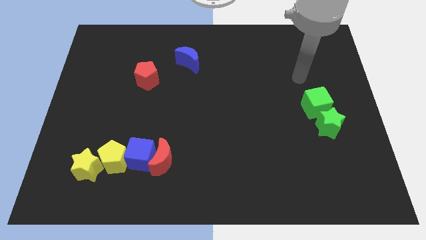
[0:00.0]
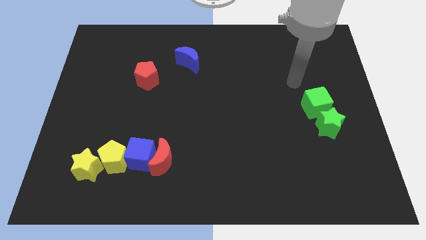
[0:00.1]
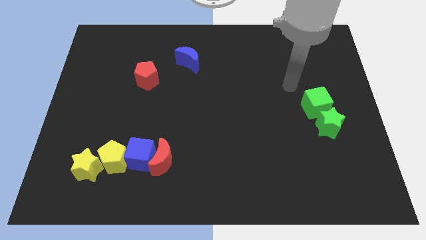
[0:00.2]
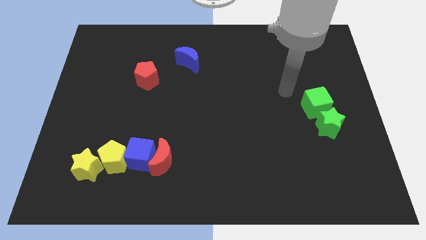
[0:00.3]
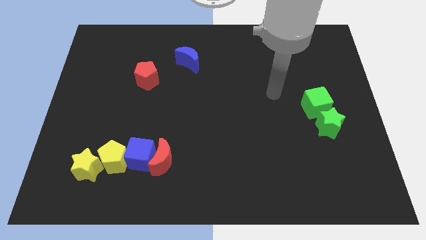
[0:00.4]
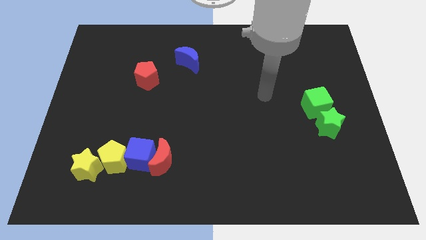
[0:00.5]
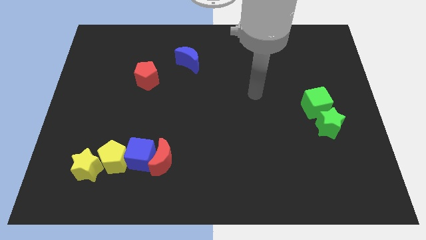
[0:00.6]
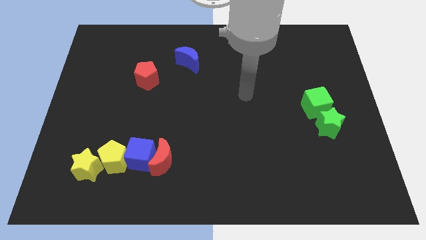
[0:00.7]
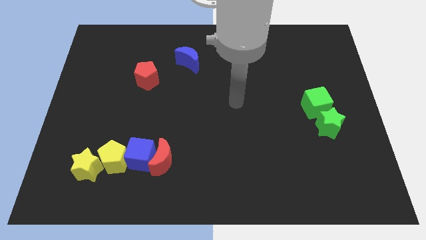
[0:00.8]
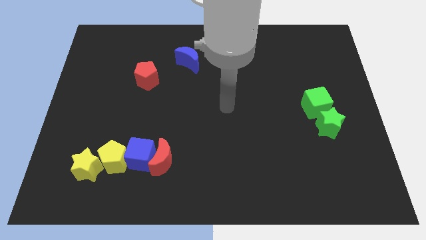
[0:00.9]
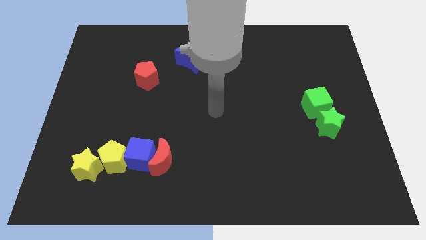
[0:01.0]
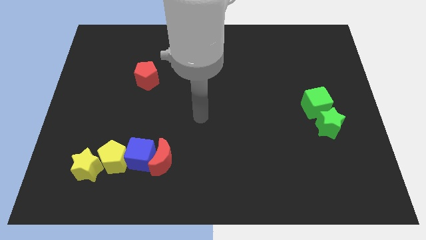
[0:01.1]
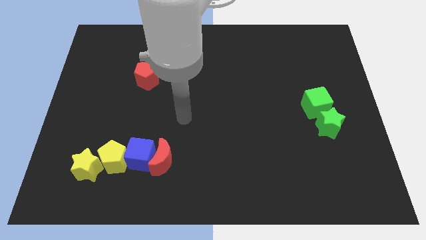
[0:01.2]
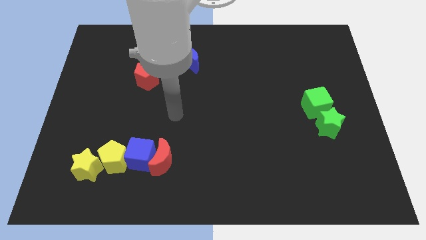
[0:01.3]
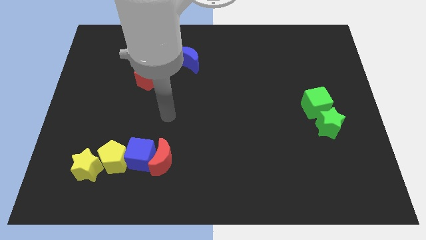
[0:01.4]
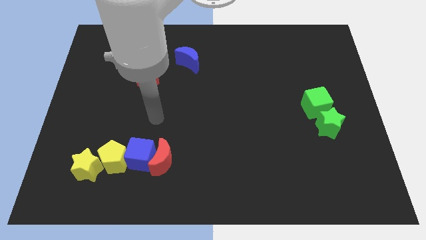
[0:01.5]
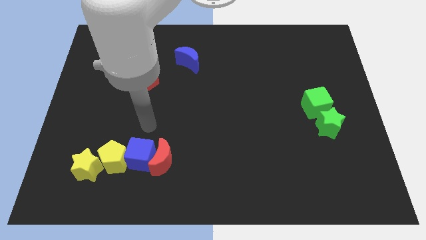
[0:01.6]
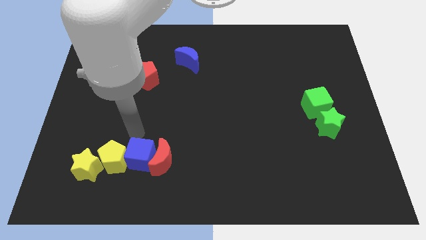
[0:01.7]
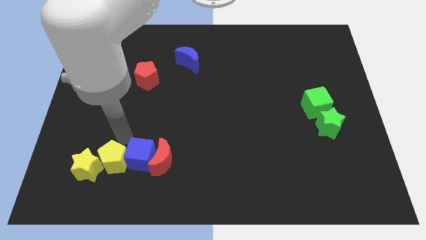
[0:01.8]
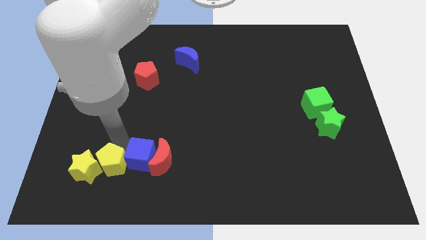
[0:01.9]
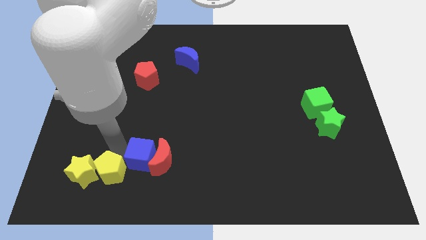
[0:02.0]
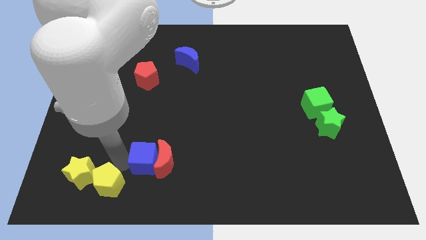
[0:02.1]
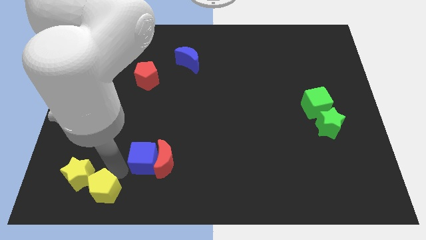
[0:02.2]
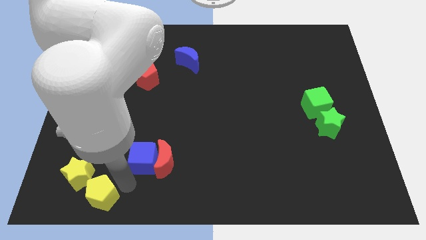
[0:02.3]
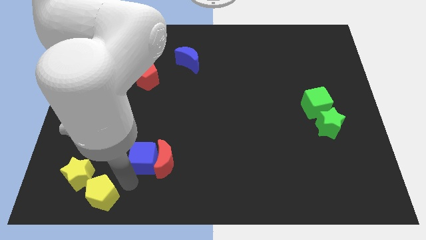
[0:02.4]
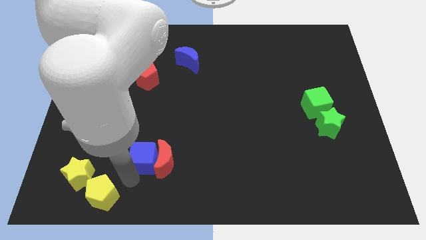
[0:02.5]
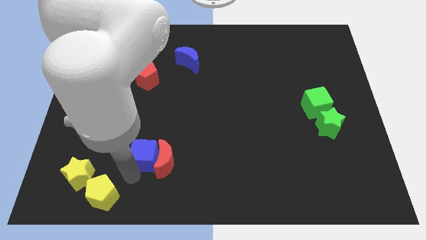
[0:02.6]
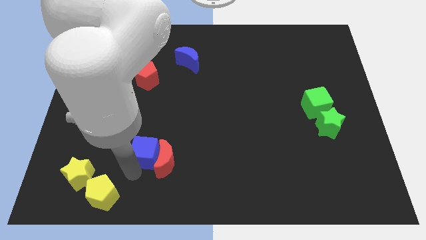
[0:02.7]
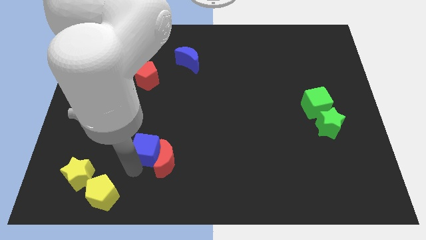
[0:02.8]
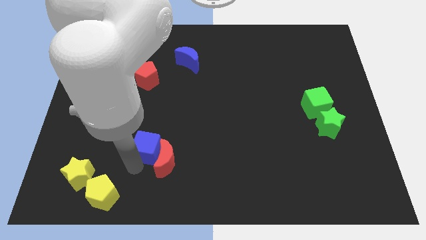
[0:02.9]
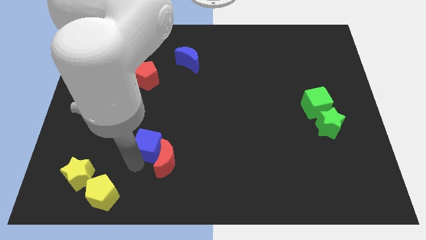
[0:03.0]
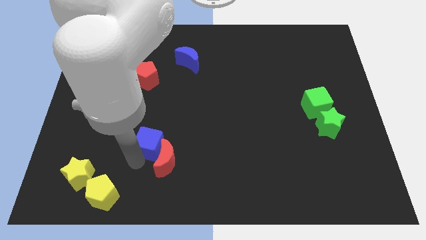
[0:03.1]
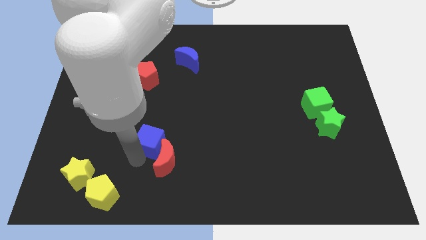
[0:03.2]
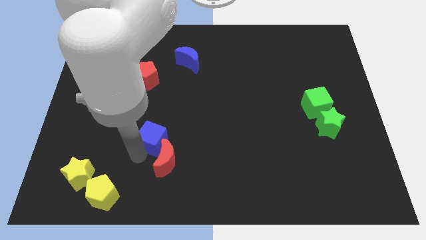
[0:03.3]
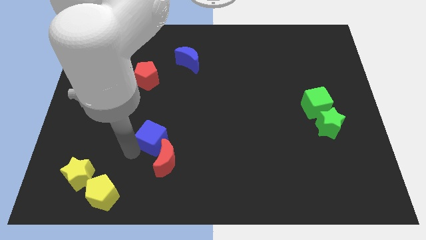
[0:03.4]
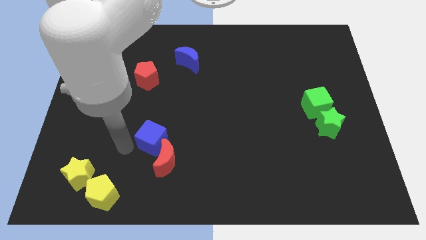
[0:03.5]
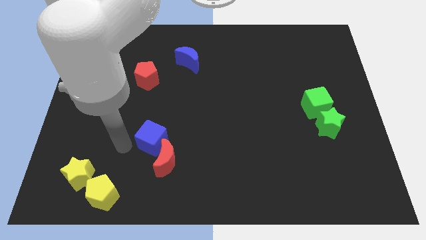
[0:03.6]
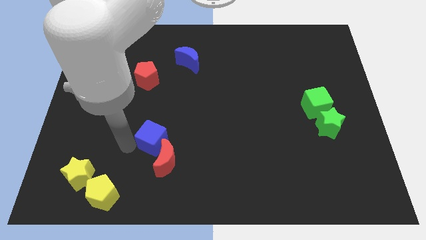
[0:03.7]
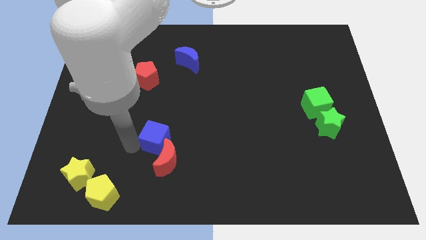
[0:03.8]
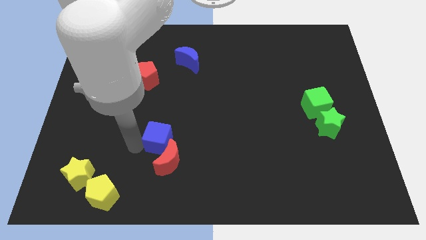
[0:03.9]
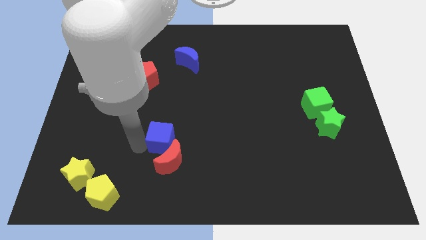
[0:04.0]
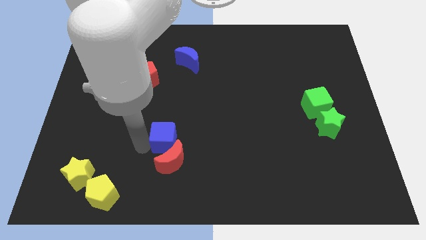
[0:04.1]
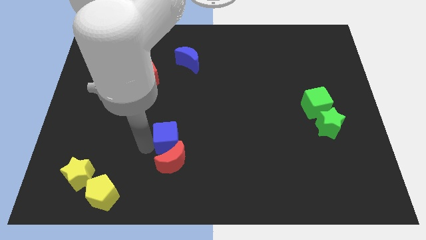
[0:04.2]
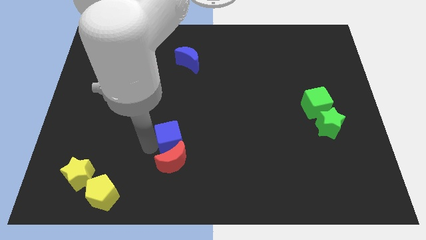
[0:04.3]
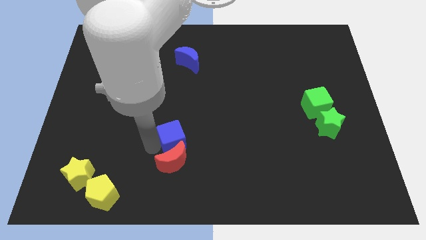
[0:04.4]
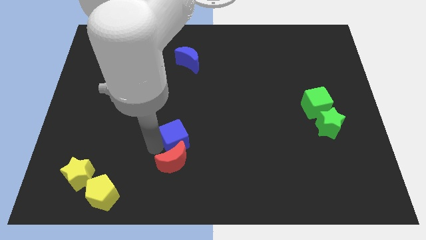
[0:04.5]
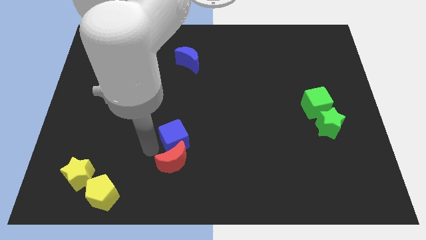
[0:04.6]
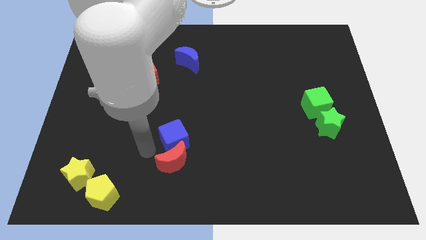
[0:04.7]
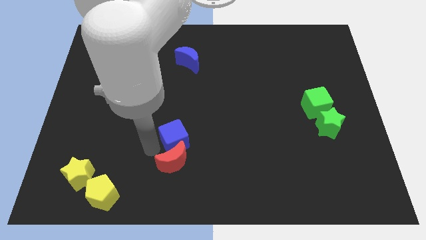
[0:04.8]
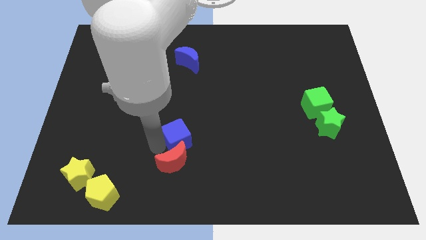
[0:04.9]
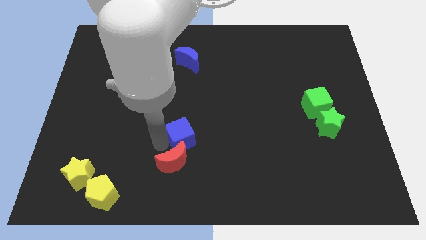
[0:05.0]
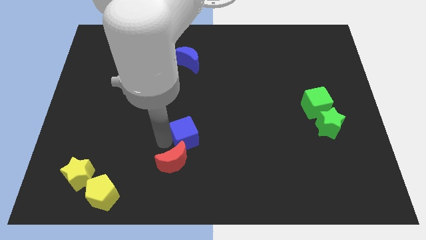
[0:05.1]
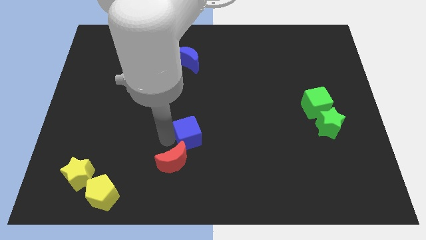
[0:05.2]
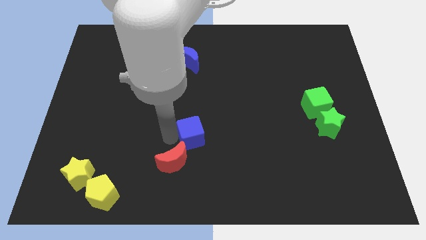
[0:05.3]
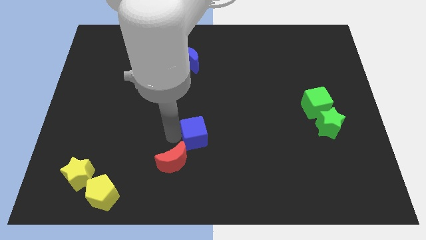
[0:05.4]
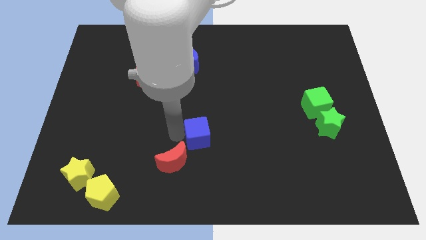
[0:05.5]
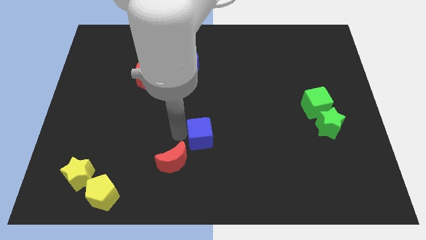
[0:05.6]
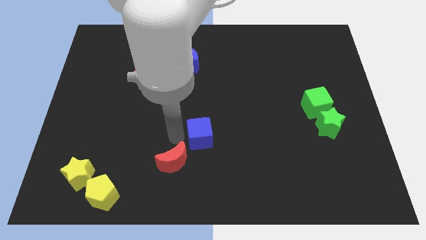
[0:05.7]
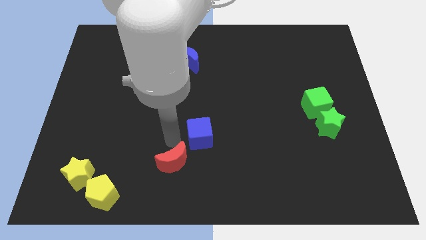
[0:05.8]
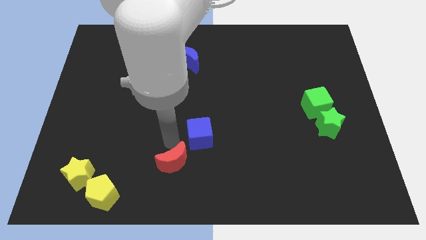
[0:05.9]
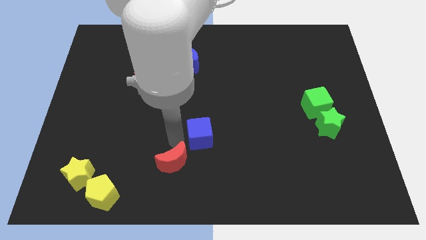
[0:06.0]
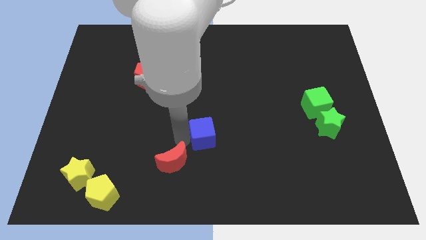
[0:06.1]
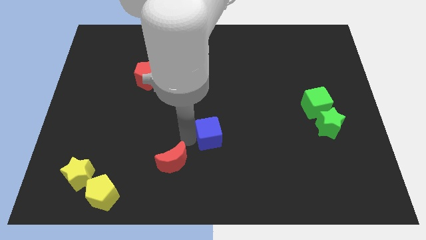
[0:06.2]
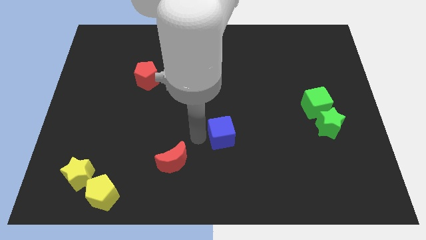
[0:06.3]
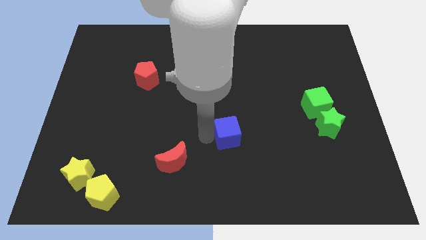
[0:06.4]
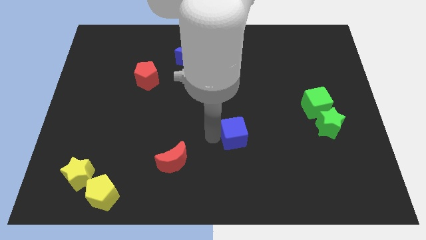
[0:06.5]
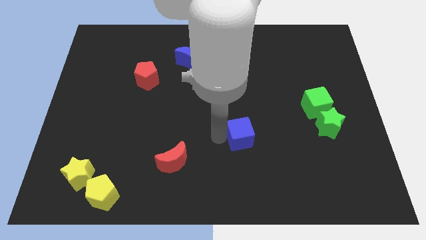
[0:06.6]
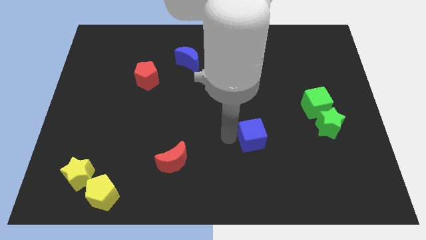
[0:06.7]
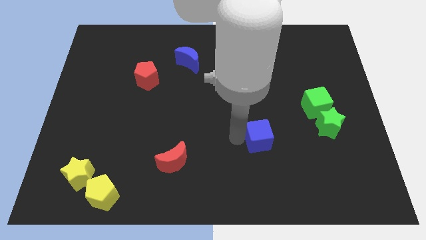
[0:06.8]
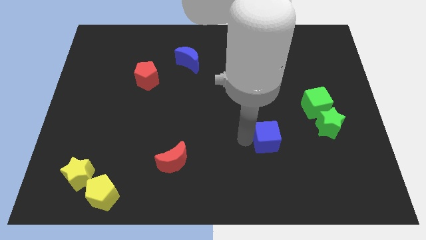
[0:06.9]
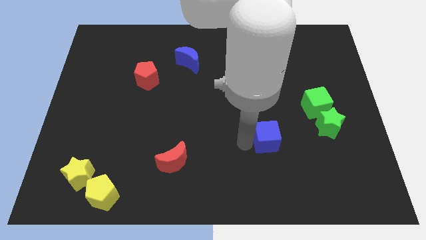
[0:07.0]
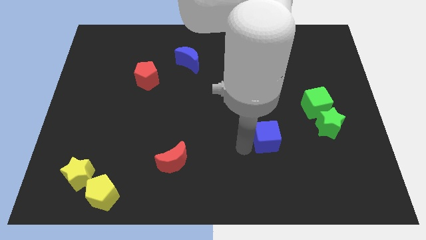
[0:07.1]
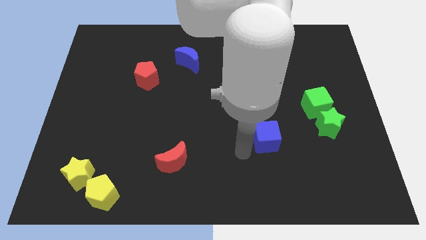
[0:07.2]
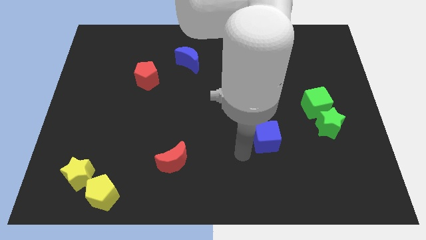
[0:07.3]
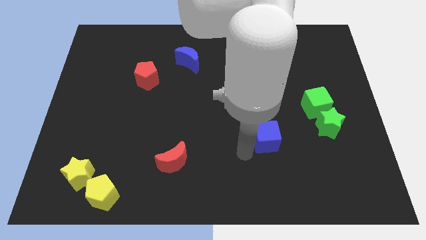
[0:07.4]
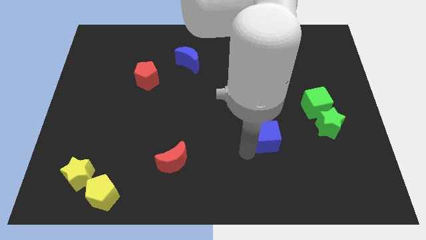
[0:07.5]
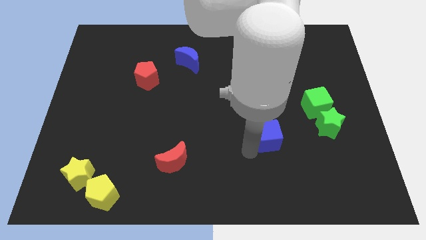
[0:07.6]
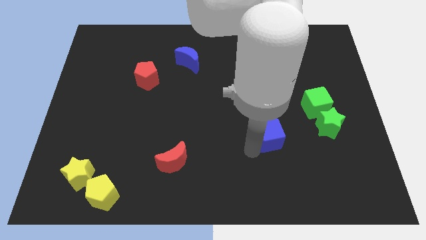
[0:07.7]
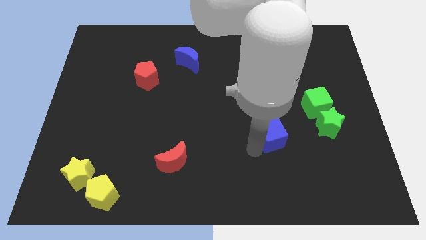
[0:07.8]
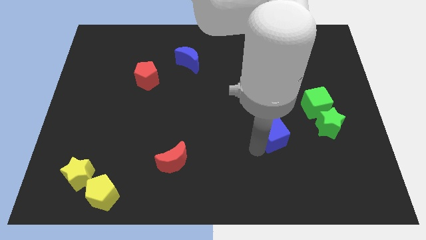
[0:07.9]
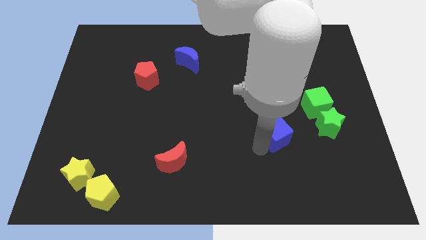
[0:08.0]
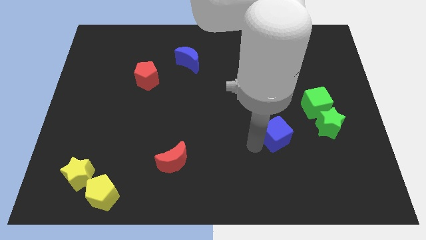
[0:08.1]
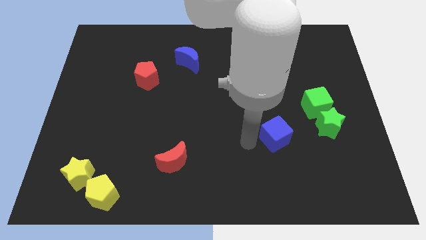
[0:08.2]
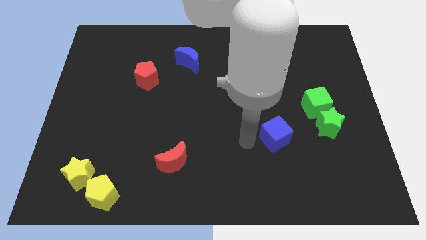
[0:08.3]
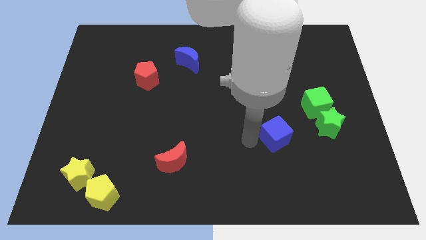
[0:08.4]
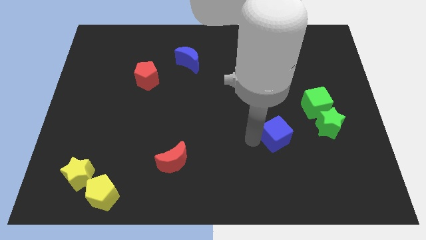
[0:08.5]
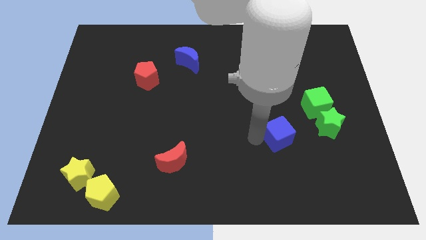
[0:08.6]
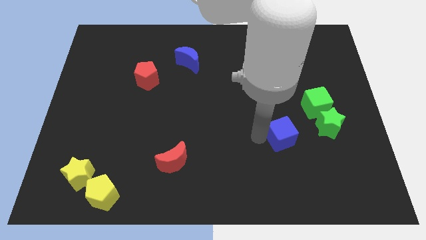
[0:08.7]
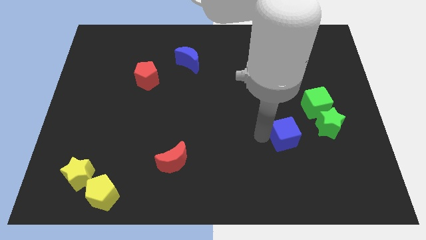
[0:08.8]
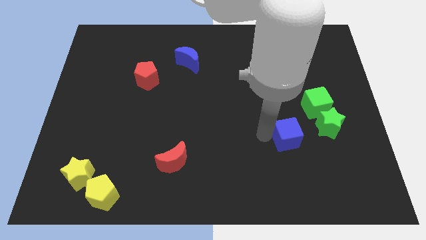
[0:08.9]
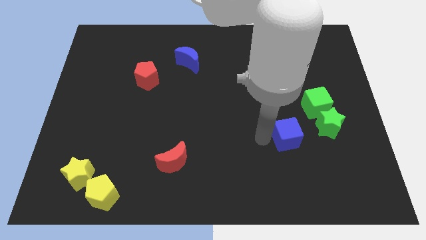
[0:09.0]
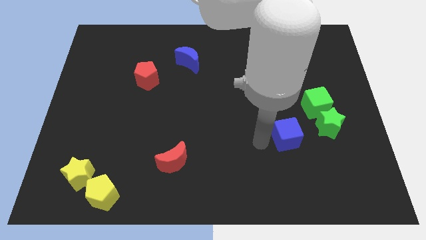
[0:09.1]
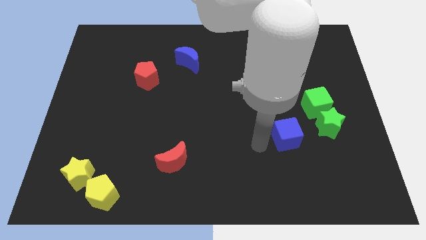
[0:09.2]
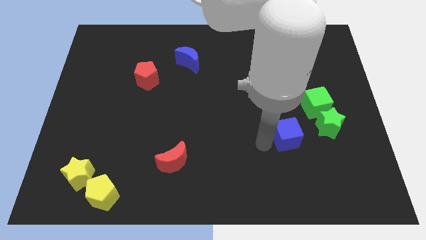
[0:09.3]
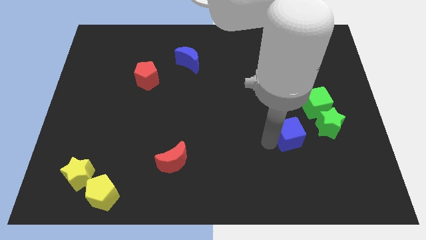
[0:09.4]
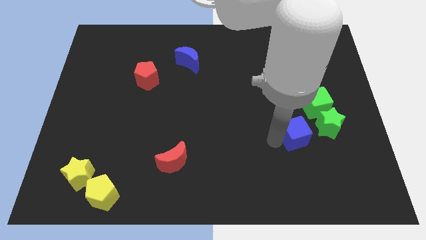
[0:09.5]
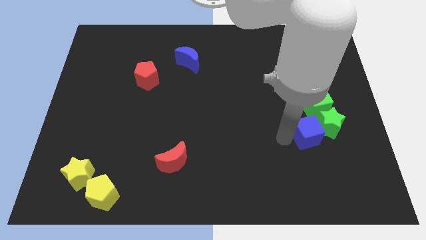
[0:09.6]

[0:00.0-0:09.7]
put the blue cube close to the green star
